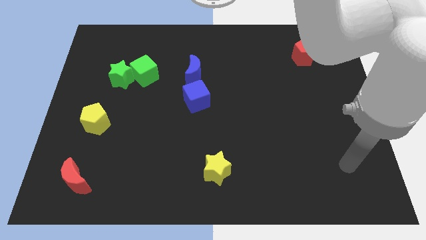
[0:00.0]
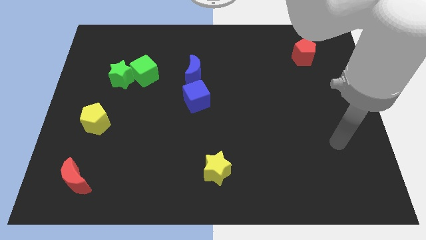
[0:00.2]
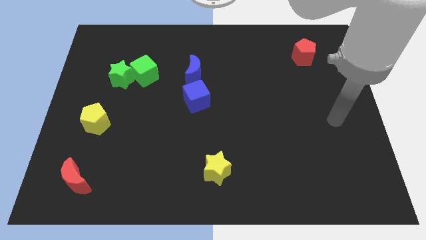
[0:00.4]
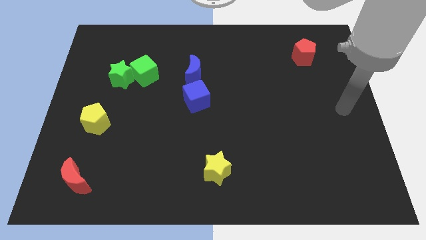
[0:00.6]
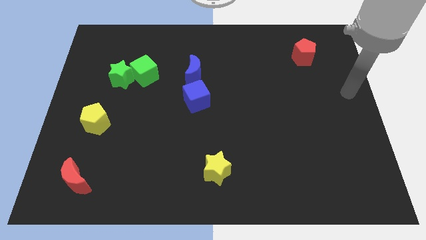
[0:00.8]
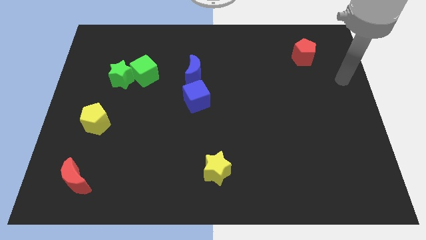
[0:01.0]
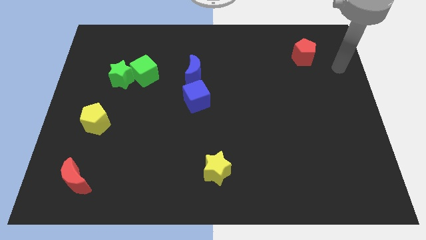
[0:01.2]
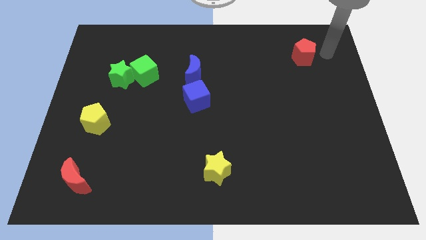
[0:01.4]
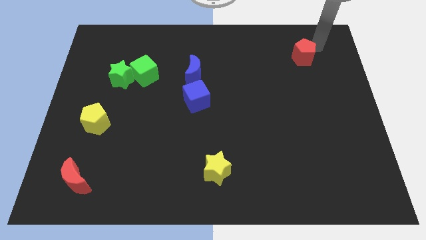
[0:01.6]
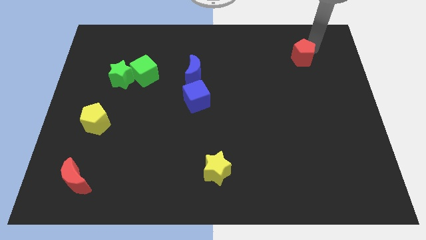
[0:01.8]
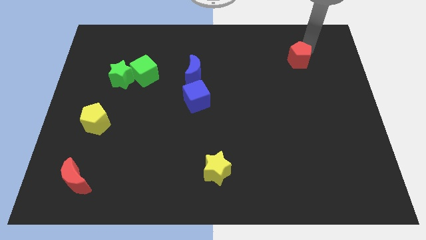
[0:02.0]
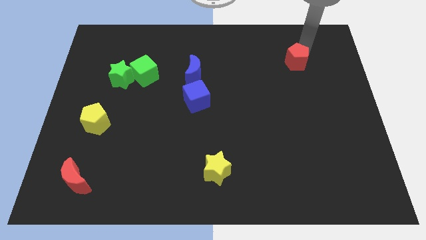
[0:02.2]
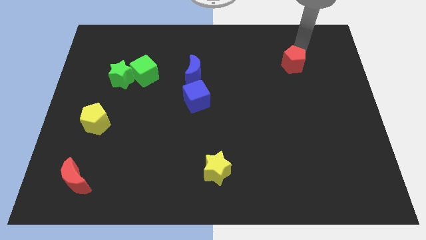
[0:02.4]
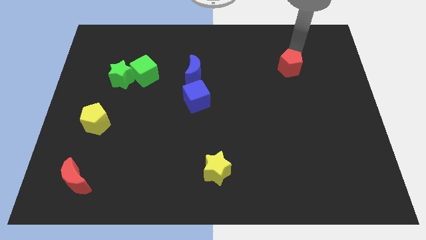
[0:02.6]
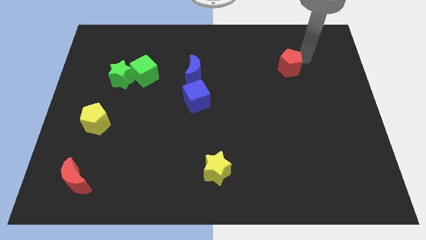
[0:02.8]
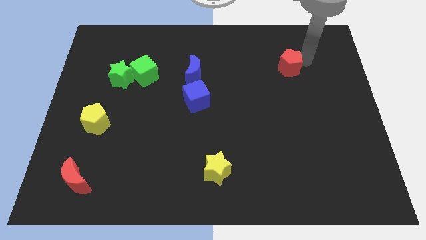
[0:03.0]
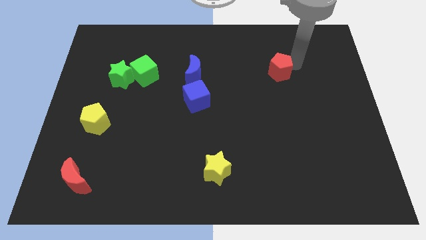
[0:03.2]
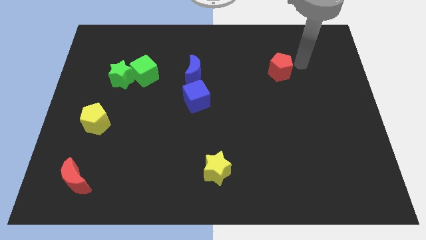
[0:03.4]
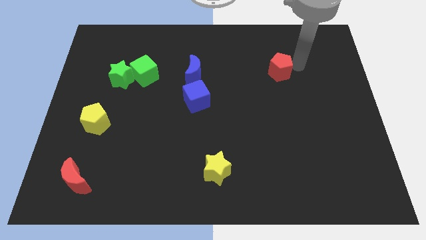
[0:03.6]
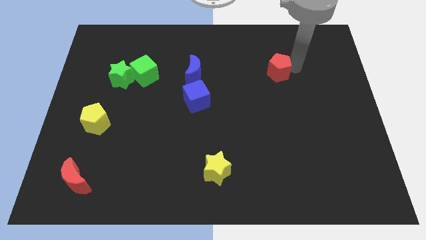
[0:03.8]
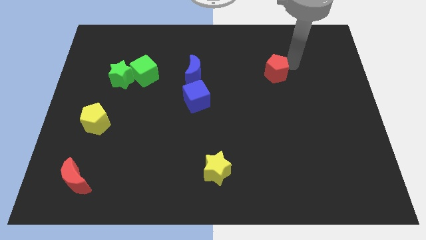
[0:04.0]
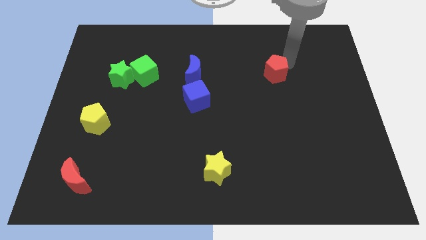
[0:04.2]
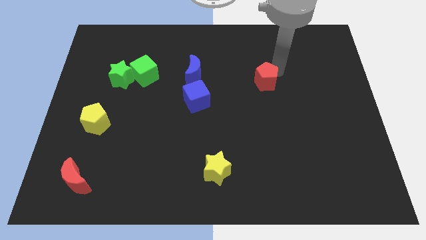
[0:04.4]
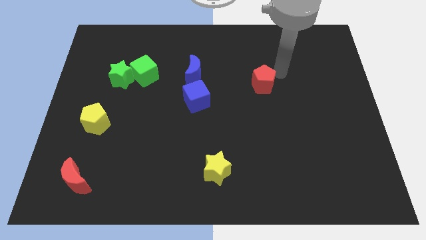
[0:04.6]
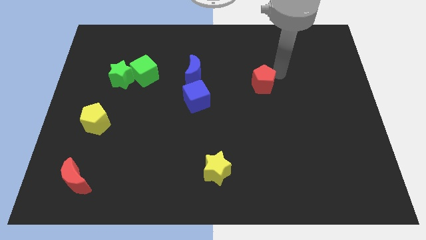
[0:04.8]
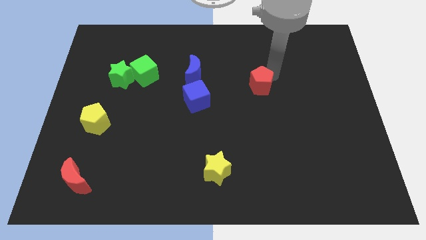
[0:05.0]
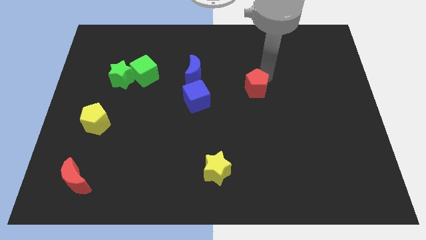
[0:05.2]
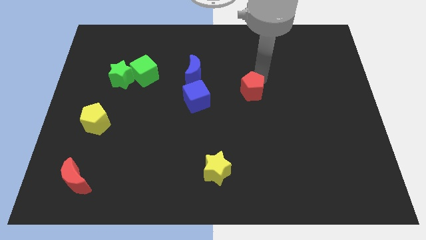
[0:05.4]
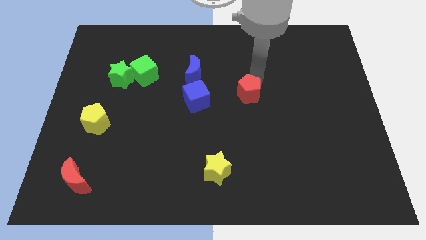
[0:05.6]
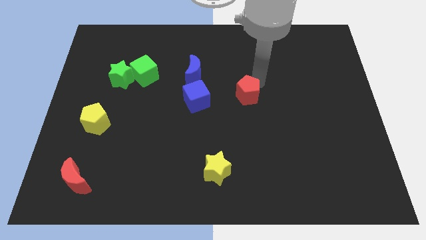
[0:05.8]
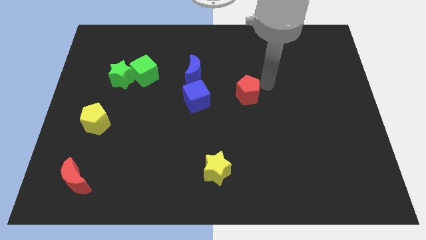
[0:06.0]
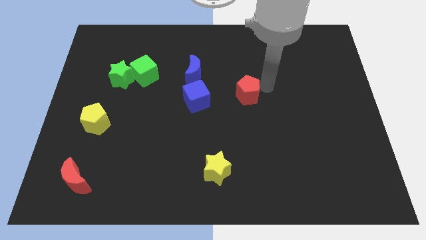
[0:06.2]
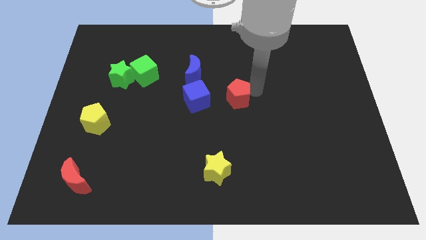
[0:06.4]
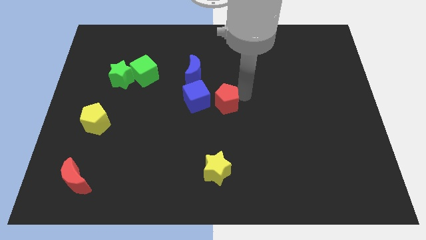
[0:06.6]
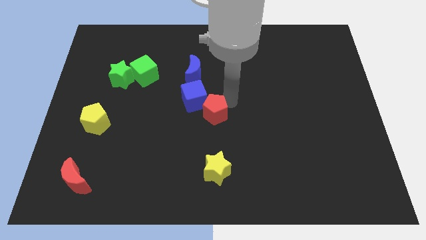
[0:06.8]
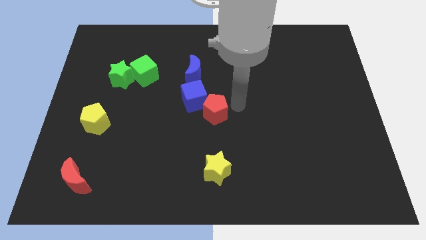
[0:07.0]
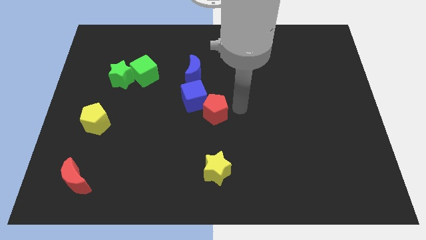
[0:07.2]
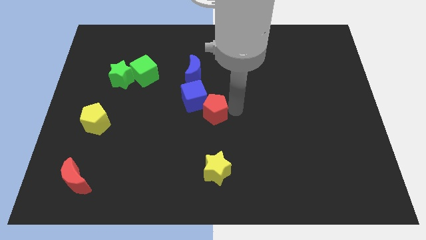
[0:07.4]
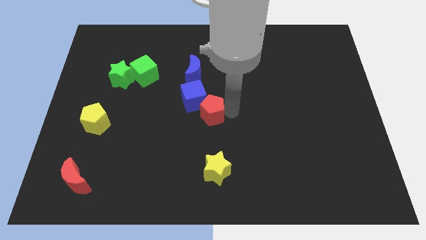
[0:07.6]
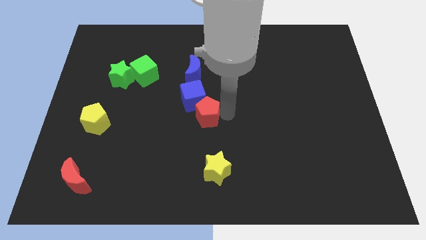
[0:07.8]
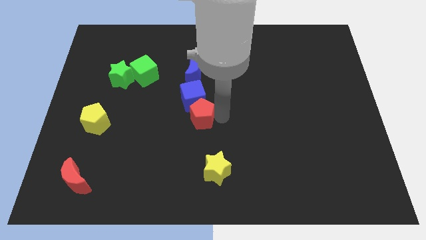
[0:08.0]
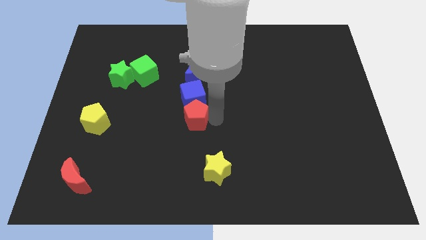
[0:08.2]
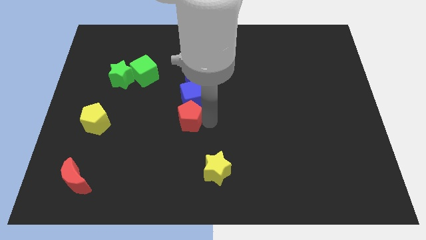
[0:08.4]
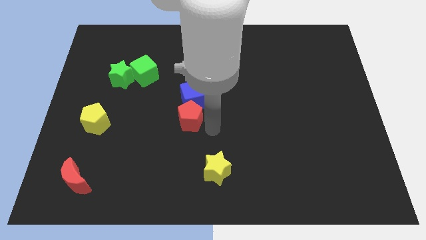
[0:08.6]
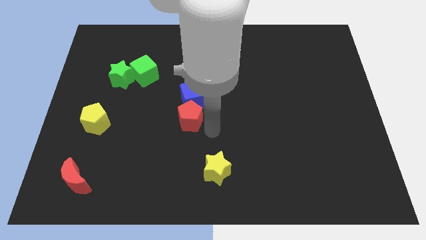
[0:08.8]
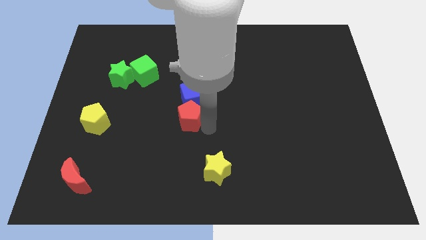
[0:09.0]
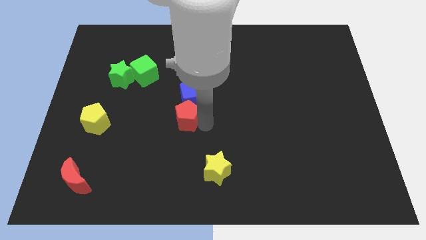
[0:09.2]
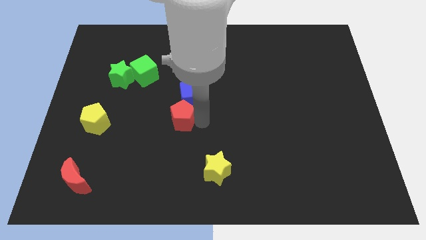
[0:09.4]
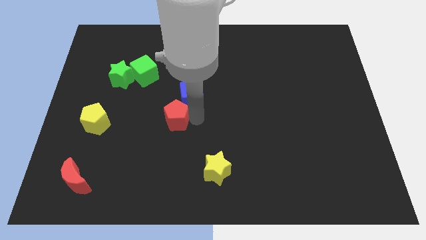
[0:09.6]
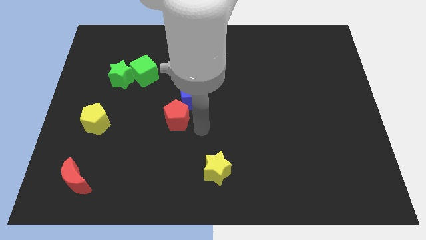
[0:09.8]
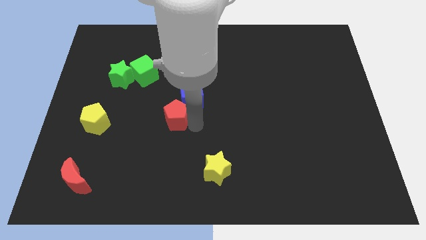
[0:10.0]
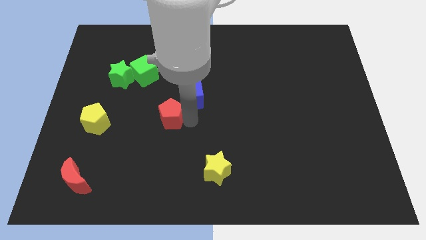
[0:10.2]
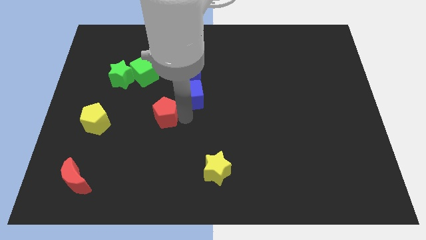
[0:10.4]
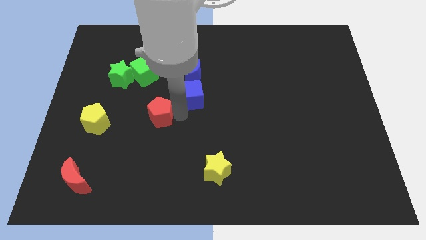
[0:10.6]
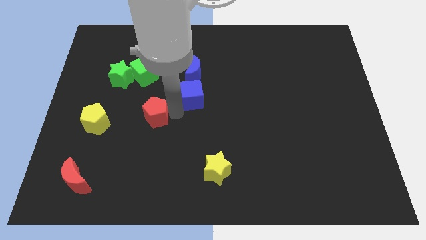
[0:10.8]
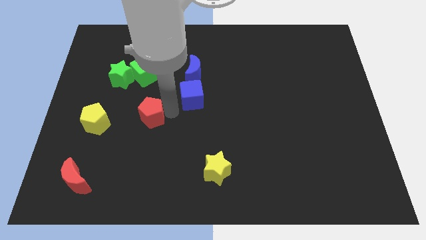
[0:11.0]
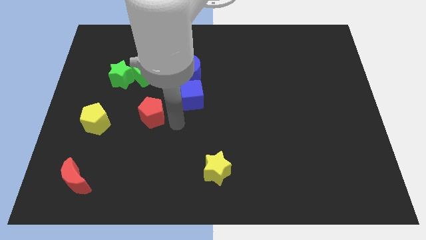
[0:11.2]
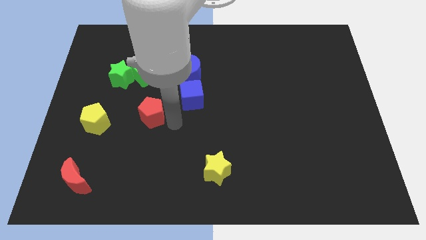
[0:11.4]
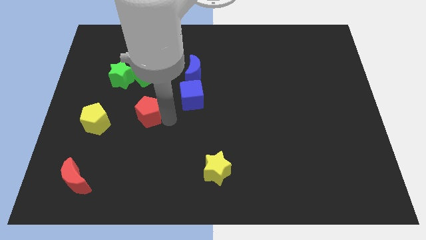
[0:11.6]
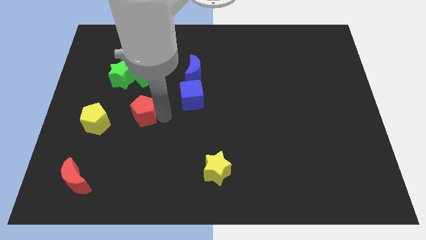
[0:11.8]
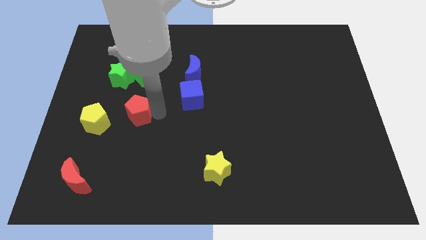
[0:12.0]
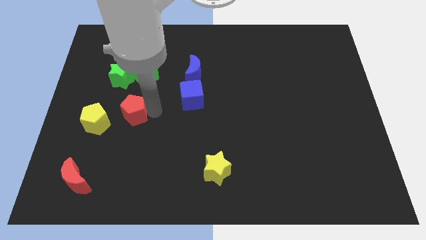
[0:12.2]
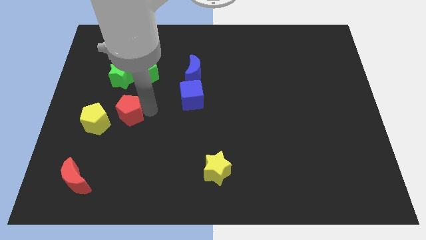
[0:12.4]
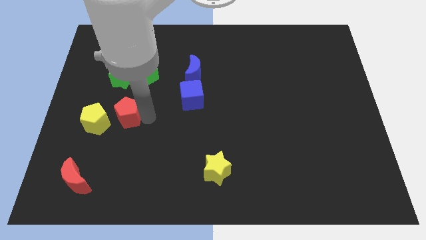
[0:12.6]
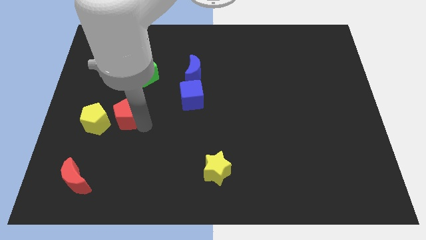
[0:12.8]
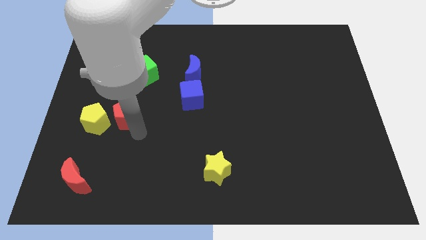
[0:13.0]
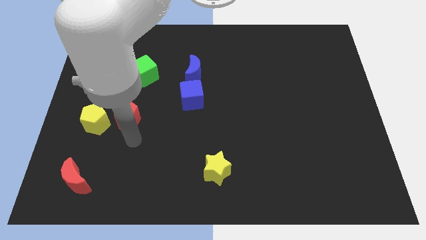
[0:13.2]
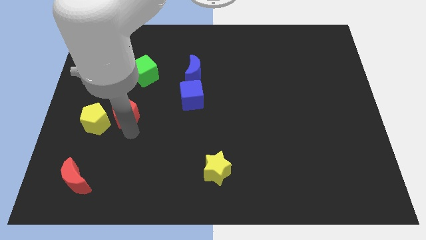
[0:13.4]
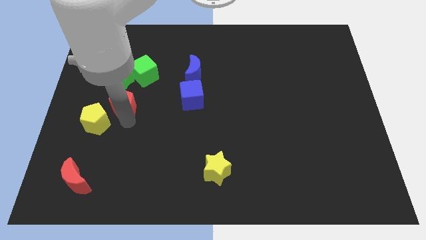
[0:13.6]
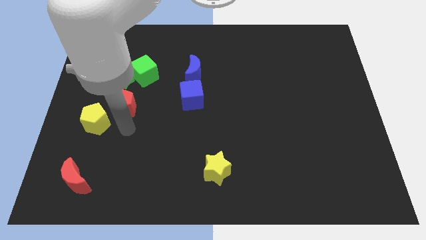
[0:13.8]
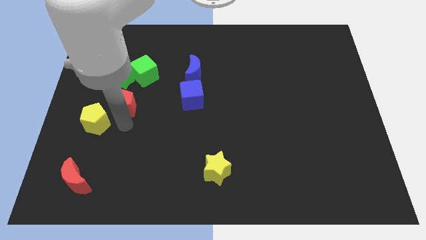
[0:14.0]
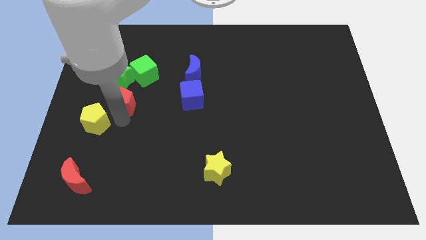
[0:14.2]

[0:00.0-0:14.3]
move the red pentagon to the bottom left of the green cube

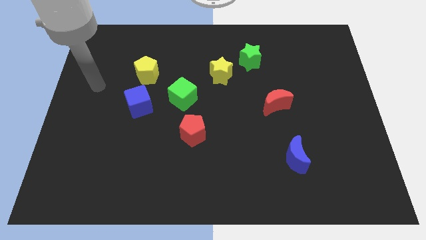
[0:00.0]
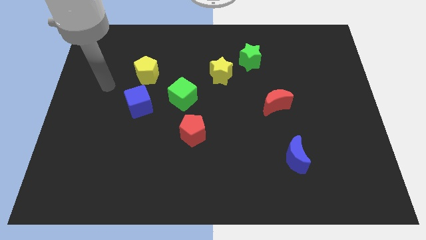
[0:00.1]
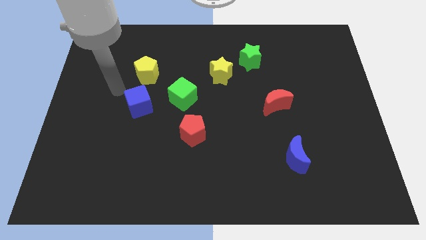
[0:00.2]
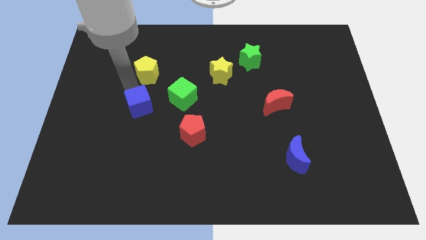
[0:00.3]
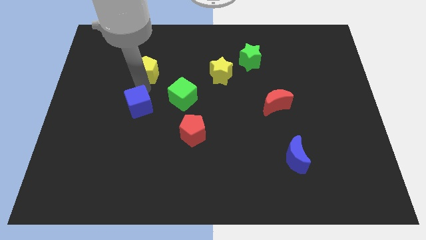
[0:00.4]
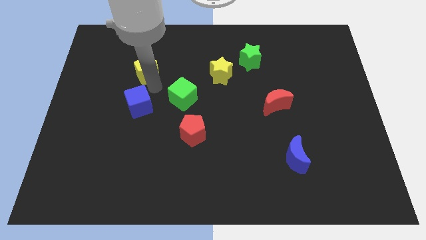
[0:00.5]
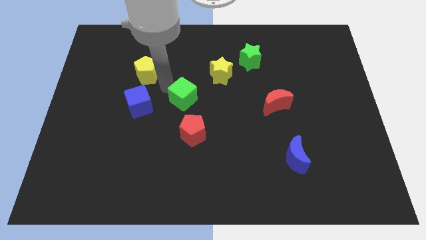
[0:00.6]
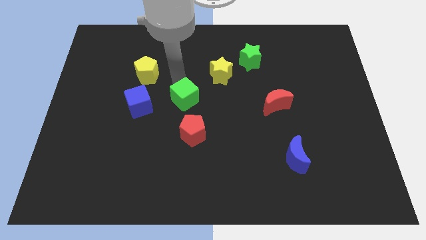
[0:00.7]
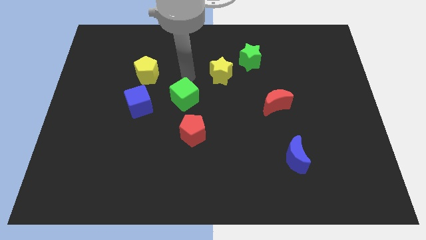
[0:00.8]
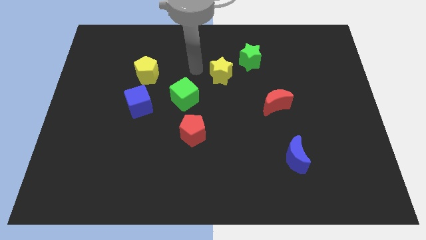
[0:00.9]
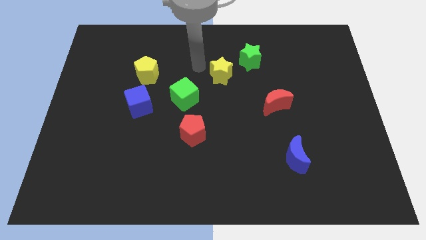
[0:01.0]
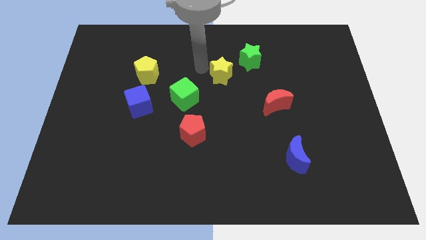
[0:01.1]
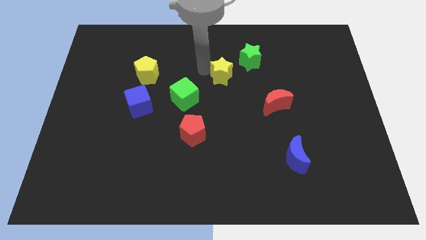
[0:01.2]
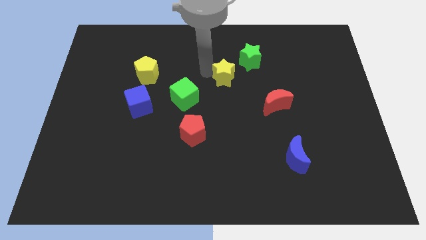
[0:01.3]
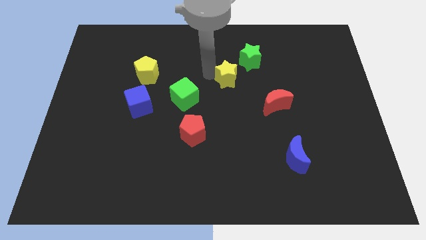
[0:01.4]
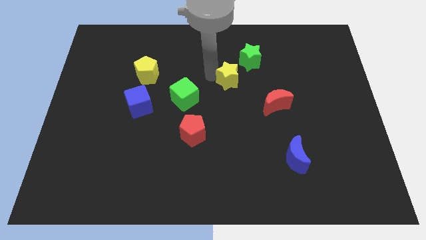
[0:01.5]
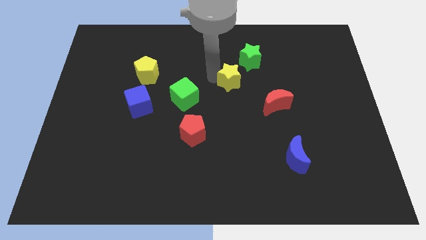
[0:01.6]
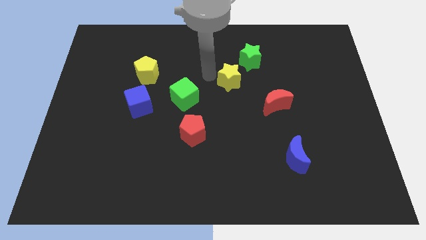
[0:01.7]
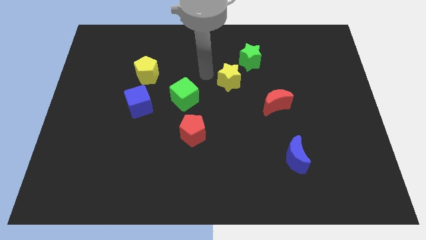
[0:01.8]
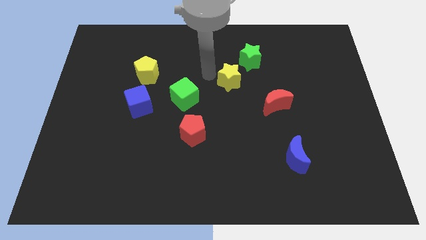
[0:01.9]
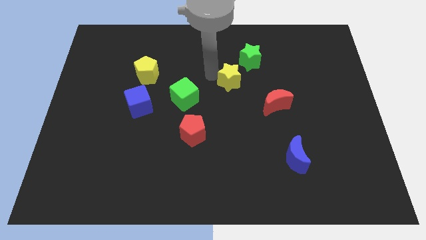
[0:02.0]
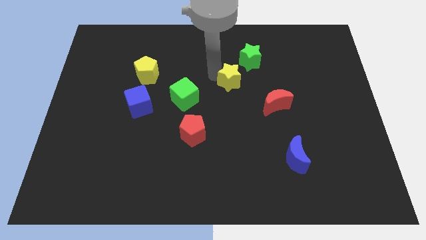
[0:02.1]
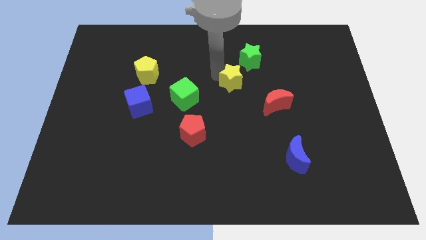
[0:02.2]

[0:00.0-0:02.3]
push the yellow star diagonally up and to the left of the red moon
